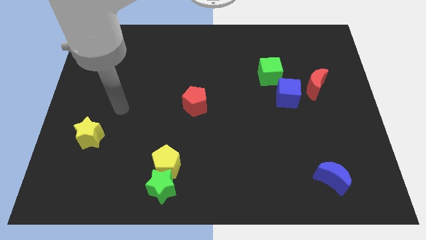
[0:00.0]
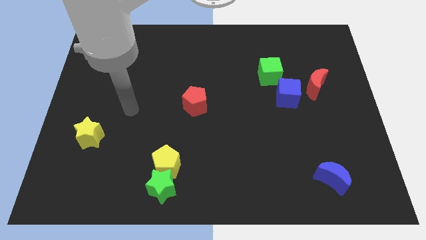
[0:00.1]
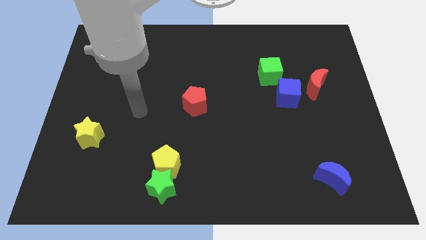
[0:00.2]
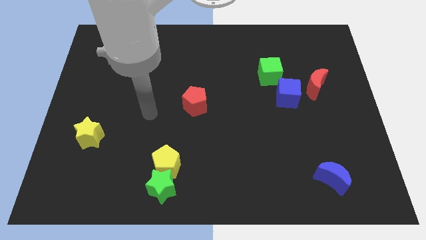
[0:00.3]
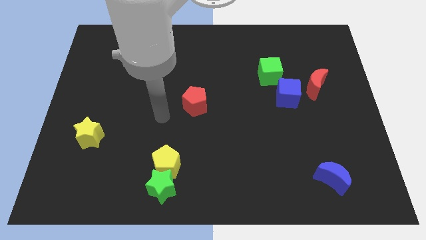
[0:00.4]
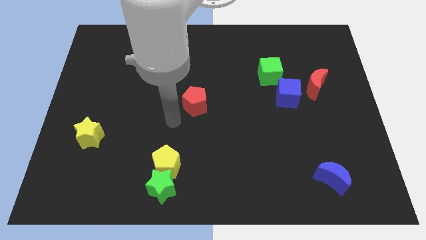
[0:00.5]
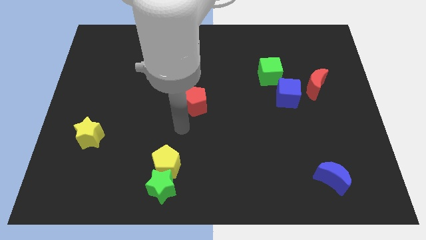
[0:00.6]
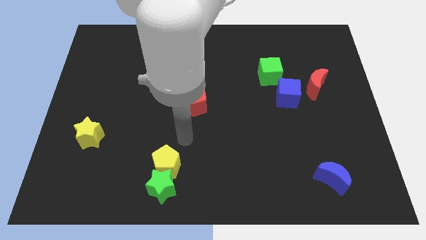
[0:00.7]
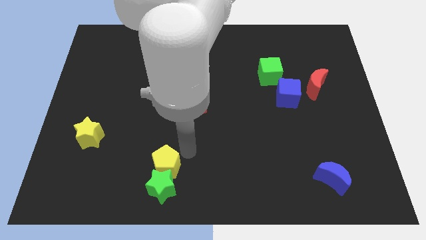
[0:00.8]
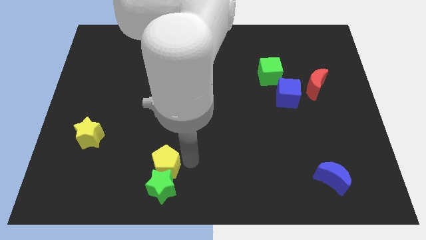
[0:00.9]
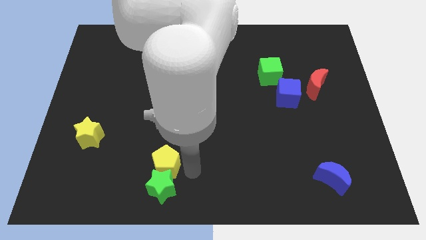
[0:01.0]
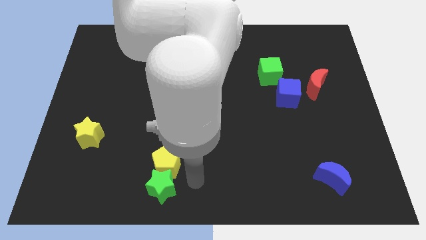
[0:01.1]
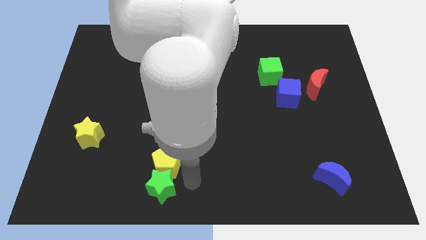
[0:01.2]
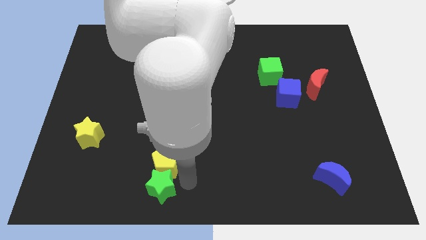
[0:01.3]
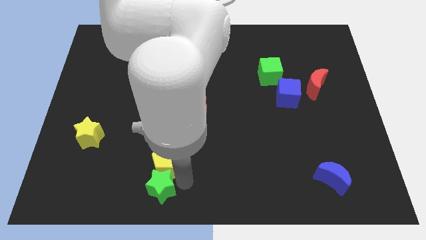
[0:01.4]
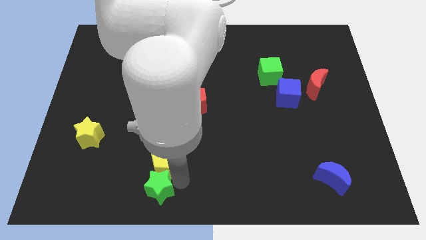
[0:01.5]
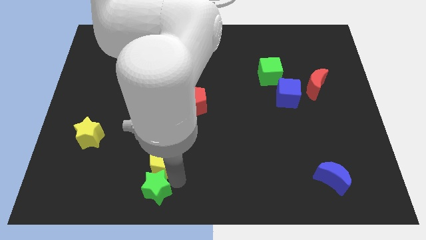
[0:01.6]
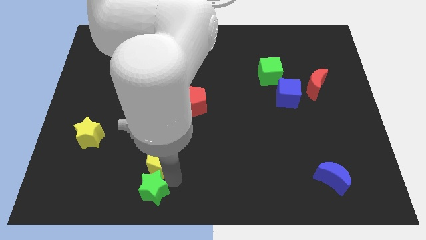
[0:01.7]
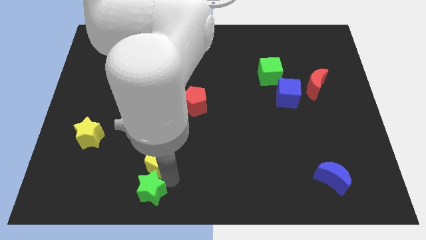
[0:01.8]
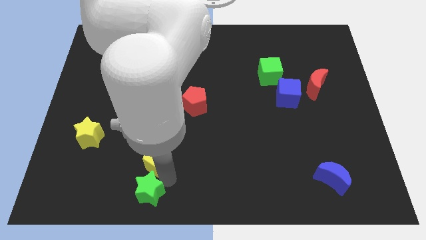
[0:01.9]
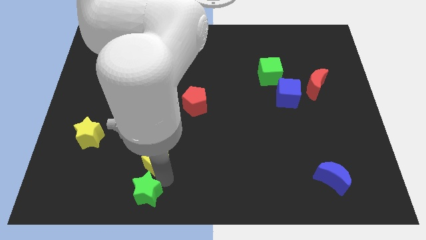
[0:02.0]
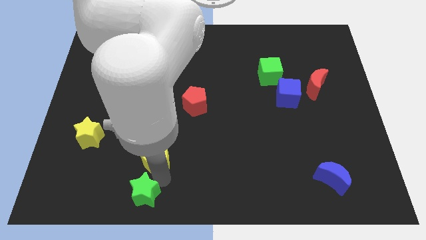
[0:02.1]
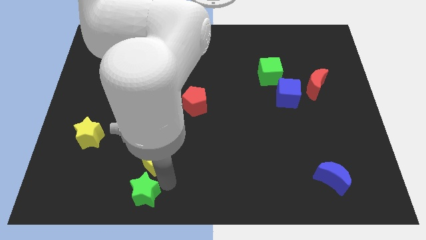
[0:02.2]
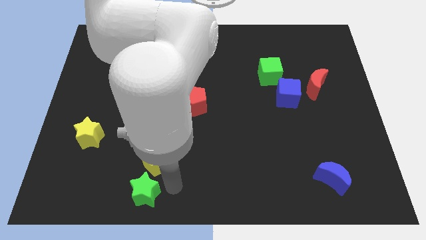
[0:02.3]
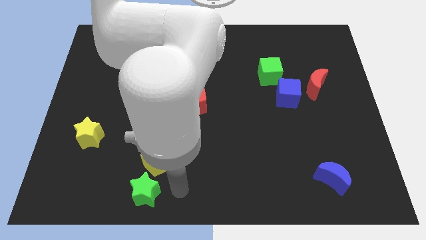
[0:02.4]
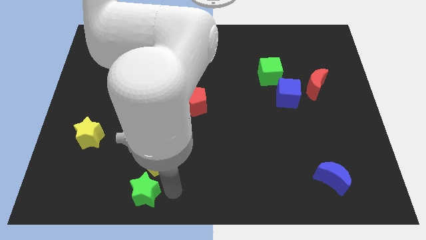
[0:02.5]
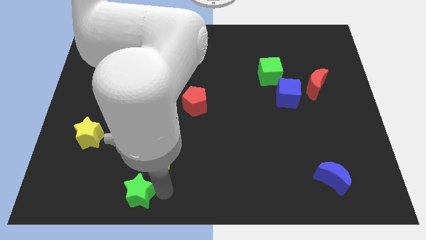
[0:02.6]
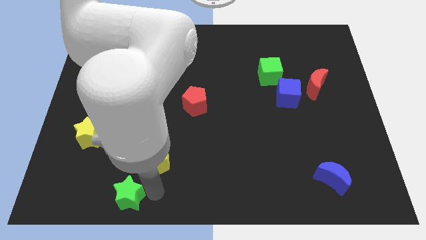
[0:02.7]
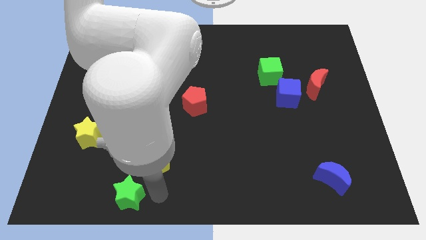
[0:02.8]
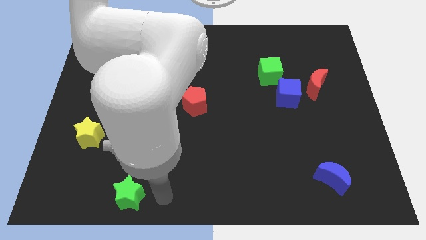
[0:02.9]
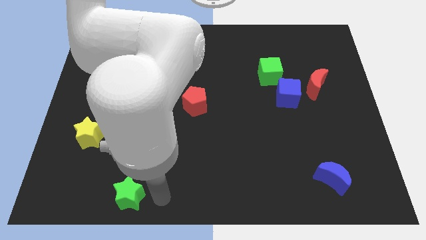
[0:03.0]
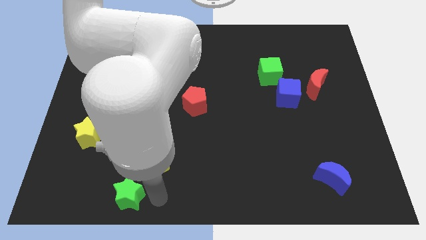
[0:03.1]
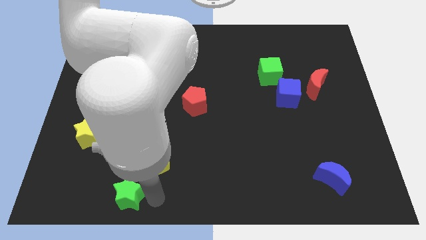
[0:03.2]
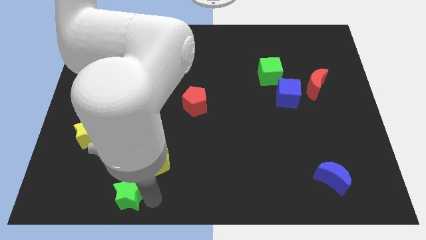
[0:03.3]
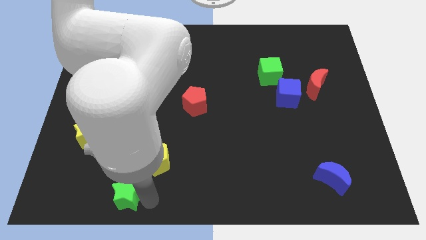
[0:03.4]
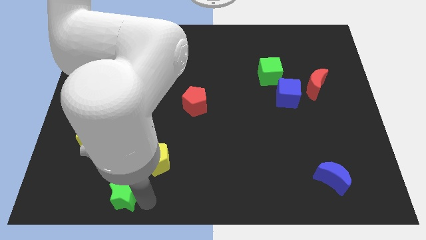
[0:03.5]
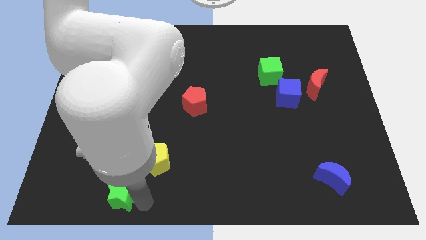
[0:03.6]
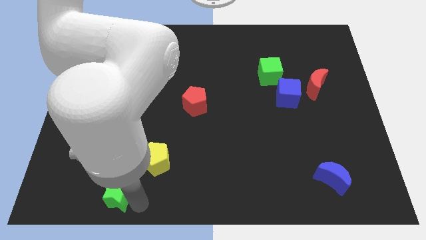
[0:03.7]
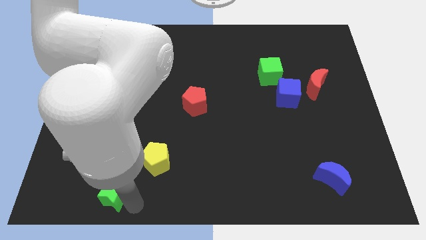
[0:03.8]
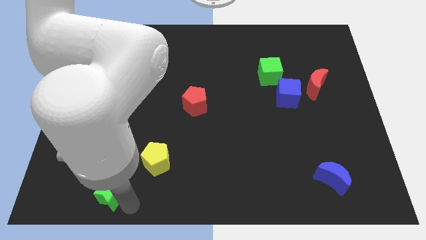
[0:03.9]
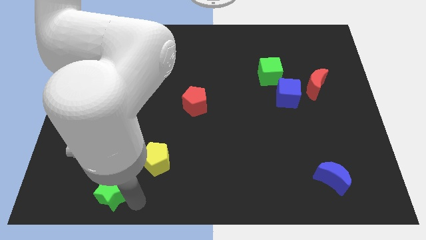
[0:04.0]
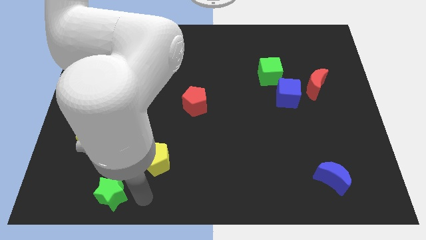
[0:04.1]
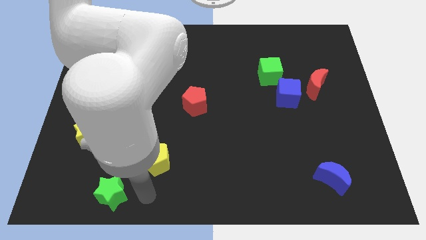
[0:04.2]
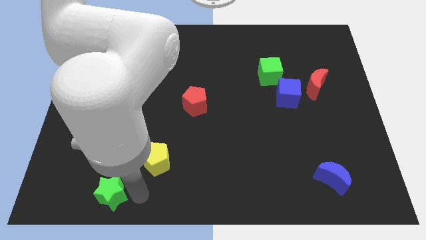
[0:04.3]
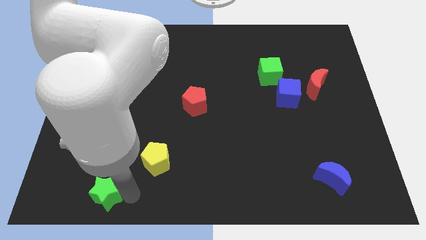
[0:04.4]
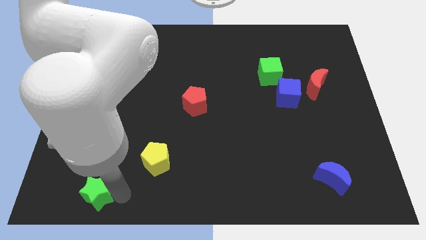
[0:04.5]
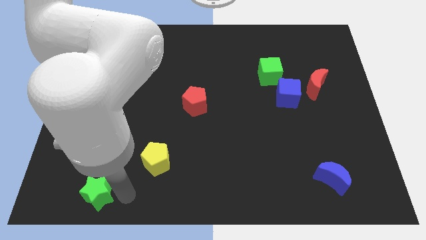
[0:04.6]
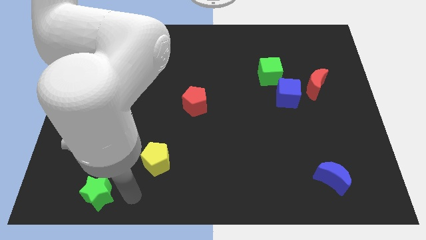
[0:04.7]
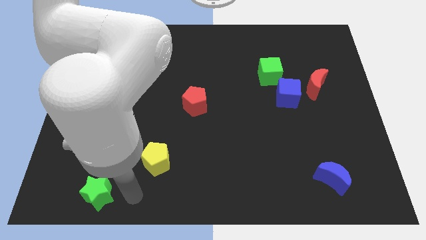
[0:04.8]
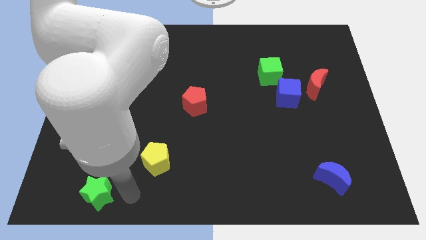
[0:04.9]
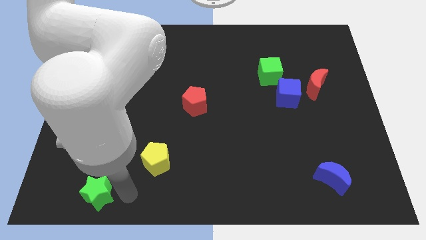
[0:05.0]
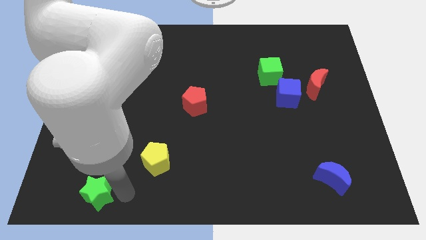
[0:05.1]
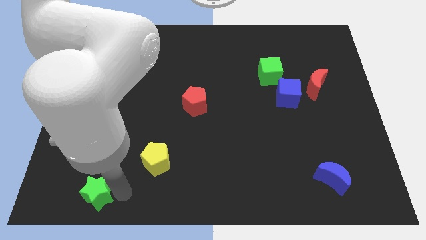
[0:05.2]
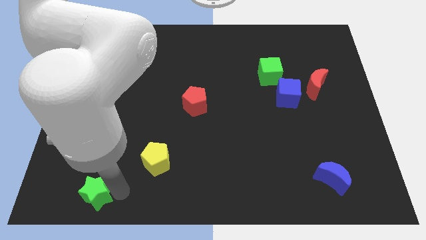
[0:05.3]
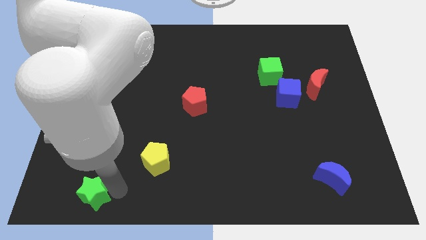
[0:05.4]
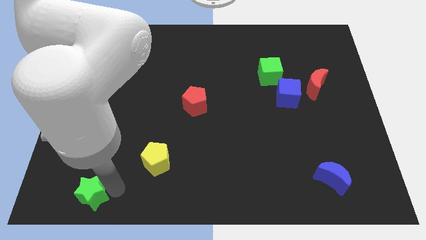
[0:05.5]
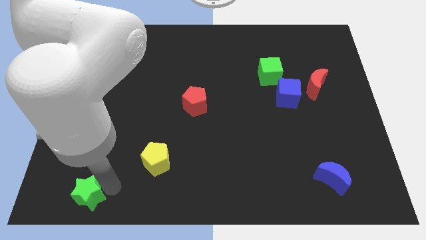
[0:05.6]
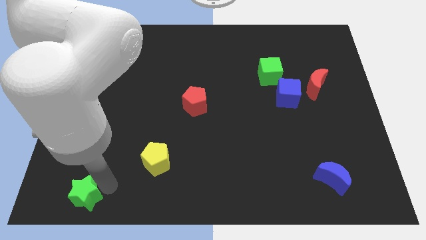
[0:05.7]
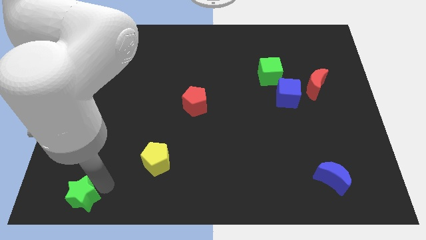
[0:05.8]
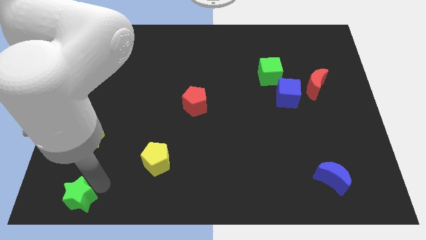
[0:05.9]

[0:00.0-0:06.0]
push the green star to the bottom left corner
